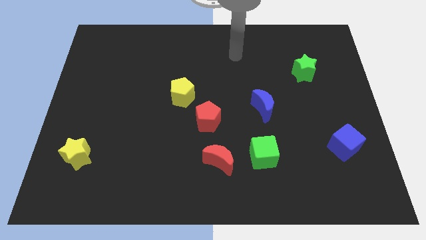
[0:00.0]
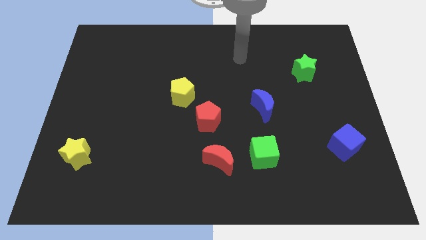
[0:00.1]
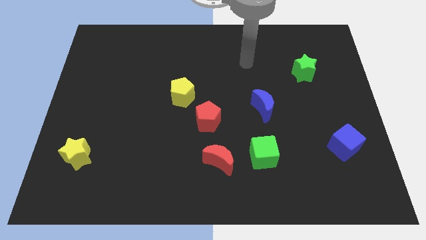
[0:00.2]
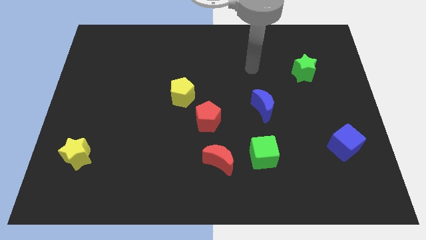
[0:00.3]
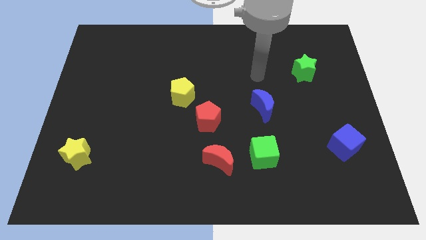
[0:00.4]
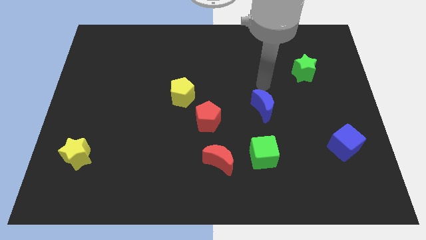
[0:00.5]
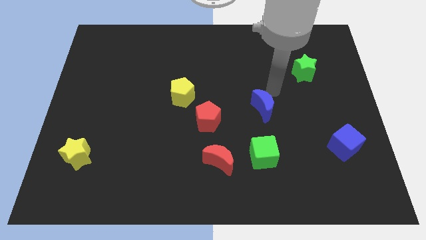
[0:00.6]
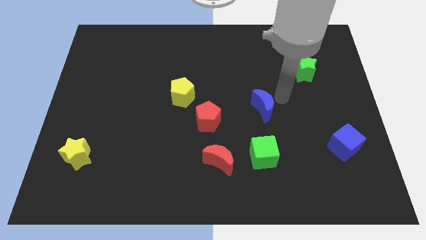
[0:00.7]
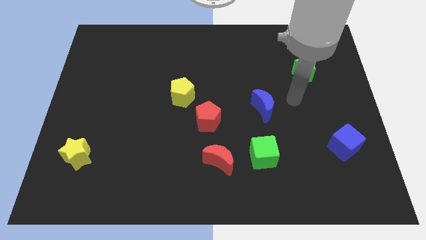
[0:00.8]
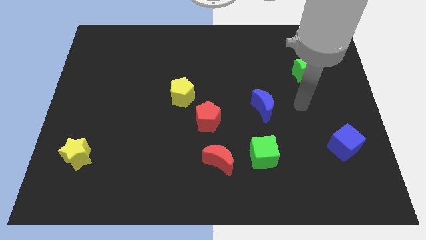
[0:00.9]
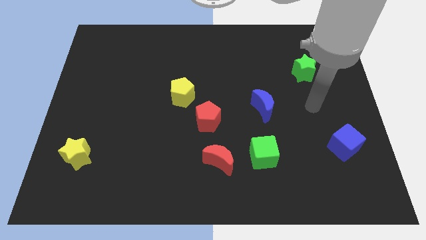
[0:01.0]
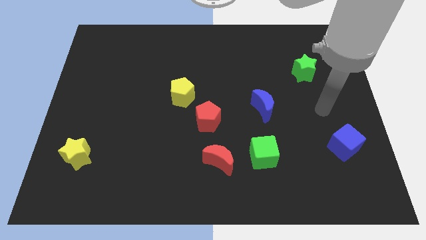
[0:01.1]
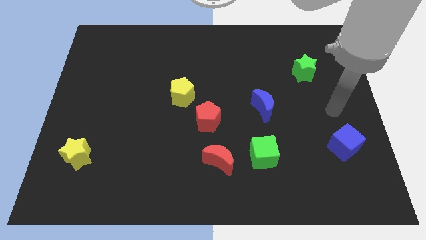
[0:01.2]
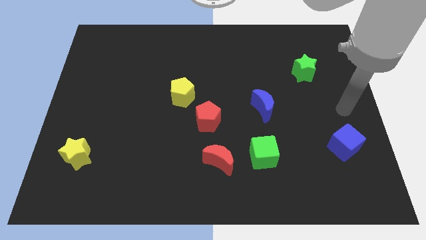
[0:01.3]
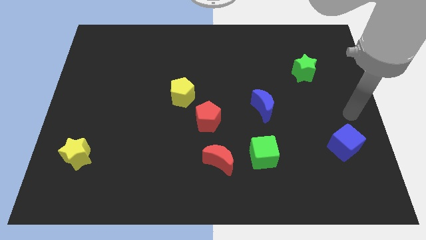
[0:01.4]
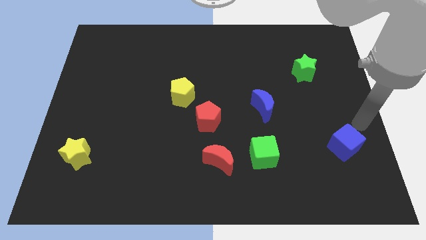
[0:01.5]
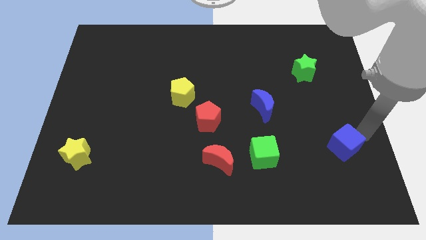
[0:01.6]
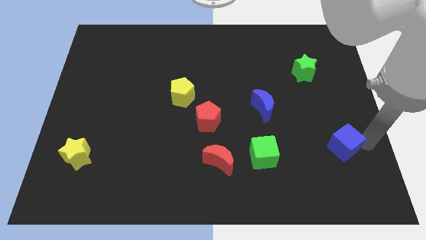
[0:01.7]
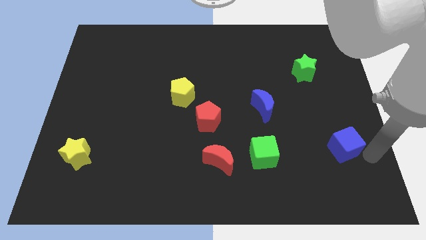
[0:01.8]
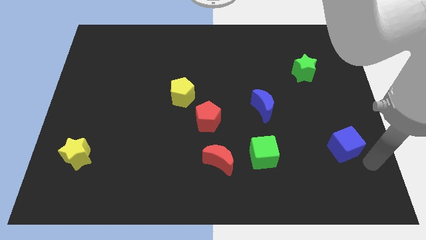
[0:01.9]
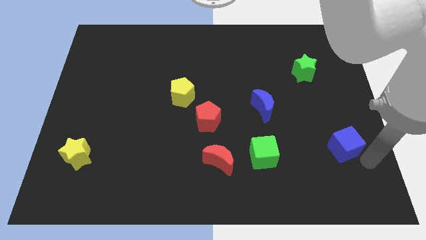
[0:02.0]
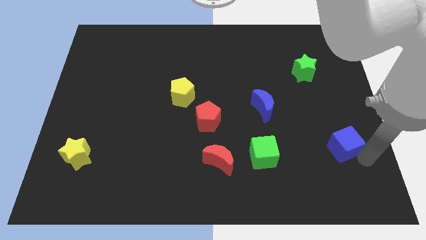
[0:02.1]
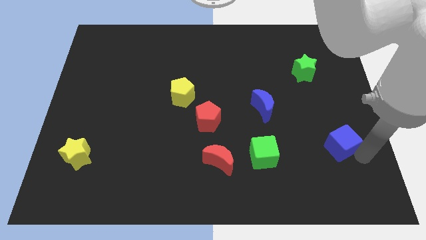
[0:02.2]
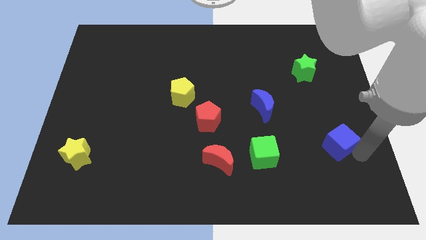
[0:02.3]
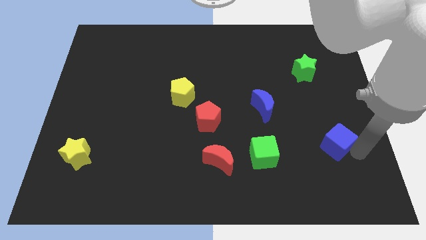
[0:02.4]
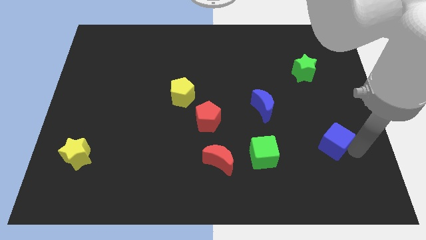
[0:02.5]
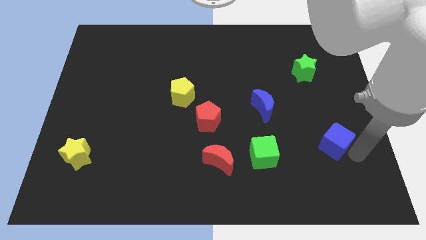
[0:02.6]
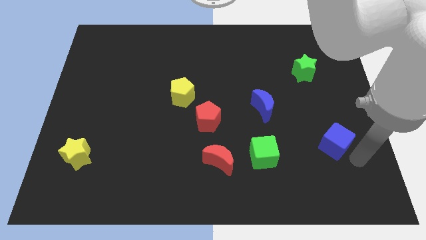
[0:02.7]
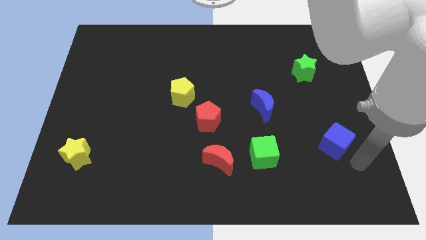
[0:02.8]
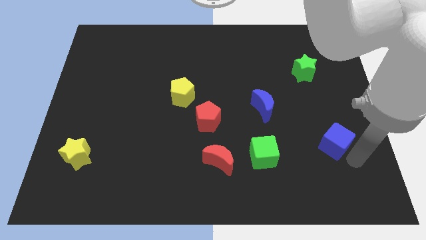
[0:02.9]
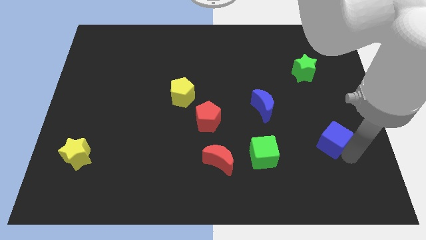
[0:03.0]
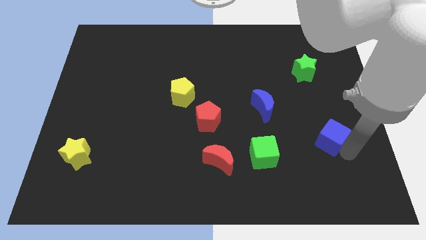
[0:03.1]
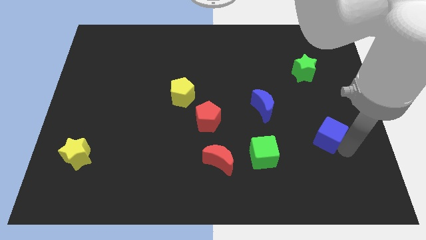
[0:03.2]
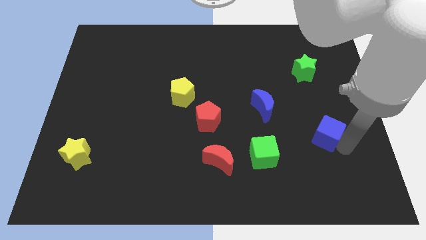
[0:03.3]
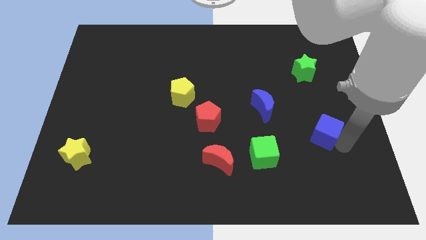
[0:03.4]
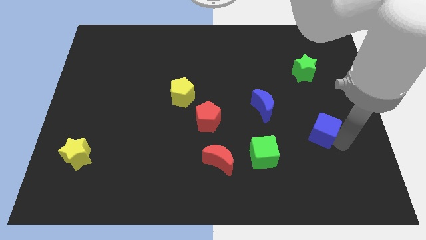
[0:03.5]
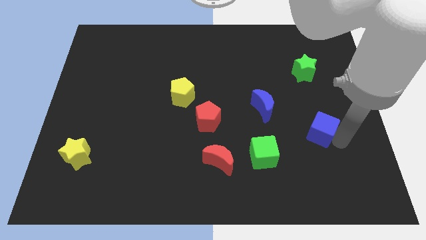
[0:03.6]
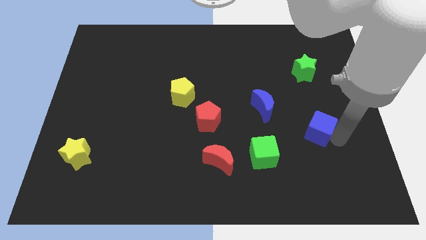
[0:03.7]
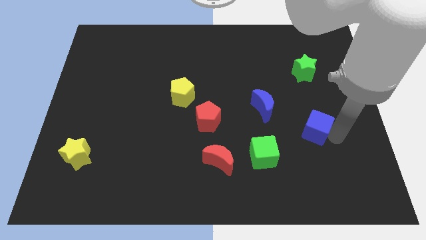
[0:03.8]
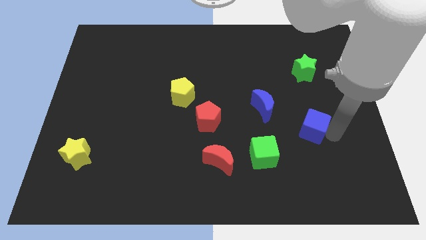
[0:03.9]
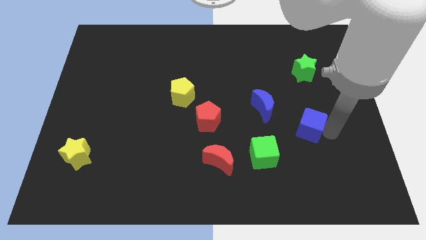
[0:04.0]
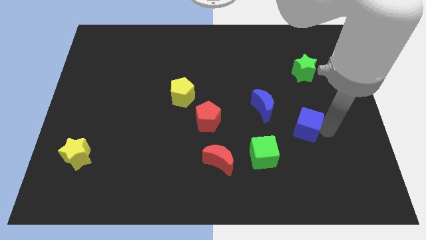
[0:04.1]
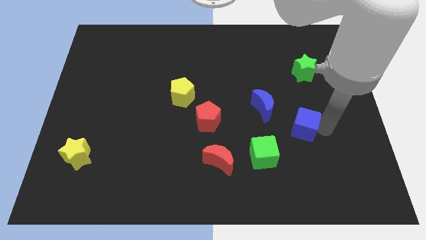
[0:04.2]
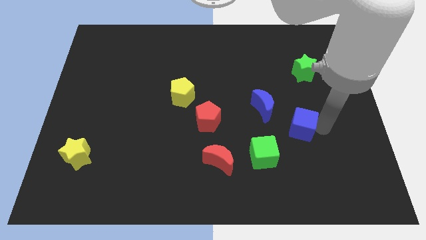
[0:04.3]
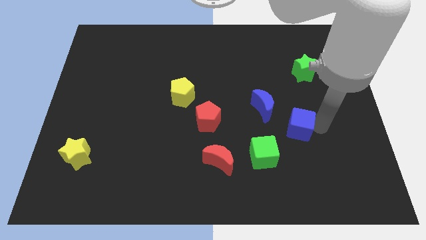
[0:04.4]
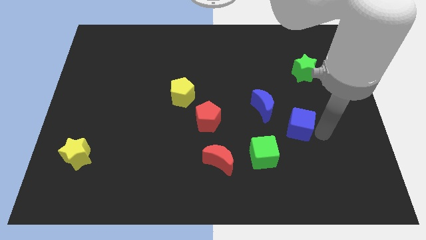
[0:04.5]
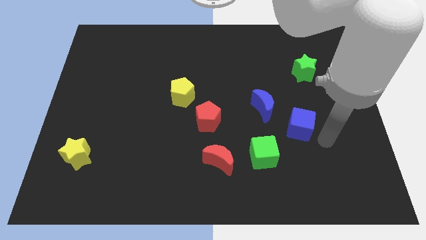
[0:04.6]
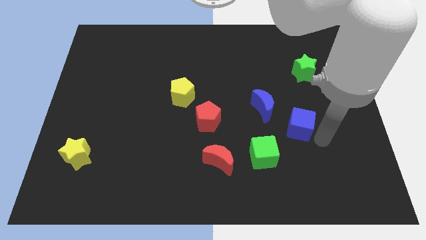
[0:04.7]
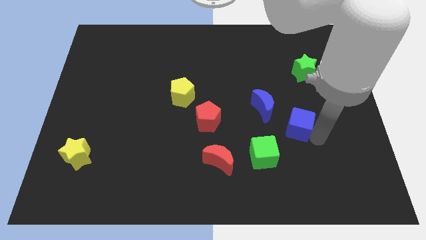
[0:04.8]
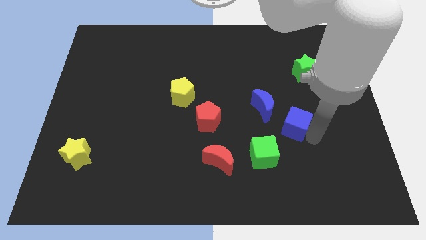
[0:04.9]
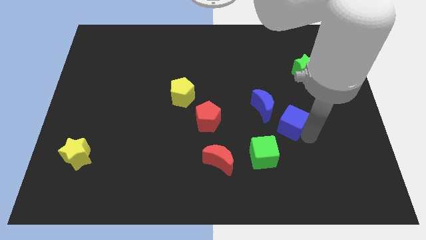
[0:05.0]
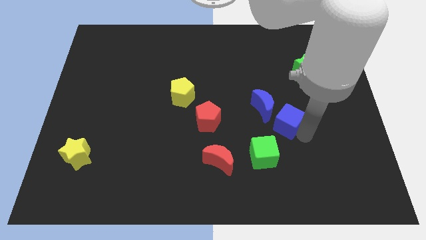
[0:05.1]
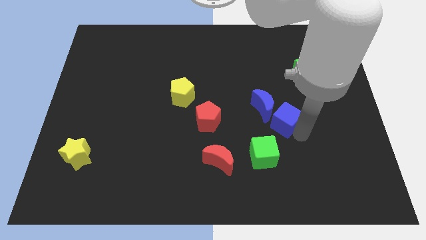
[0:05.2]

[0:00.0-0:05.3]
slide the blue cube next to the blue moon

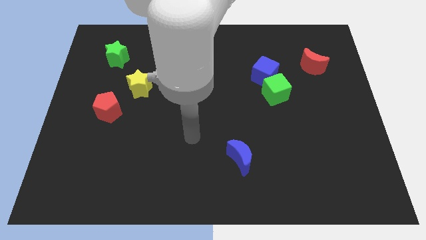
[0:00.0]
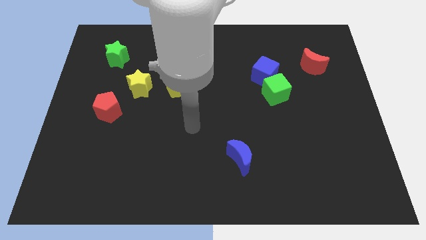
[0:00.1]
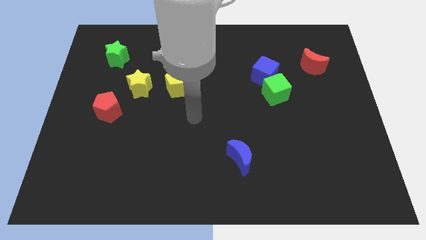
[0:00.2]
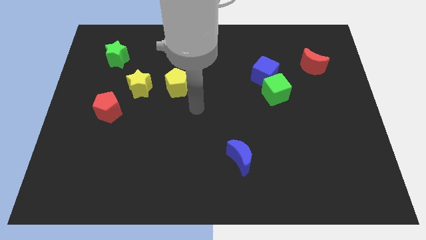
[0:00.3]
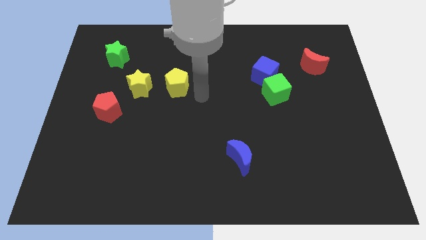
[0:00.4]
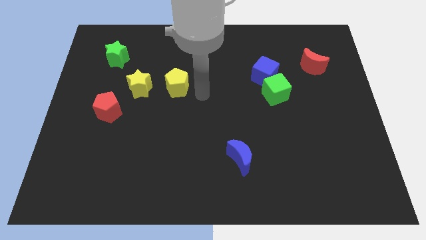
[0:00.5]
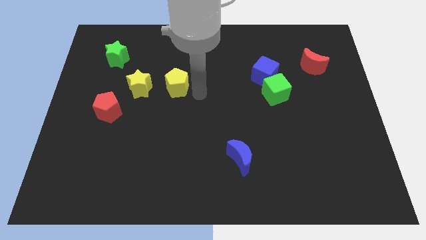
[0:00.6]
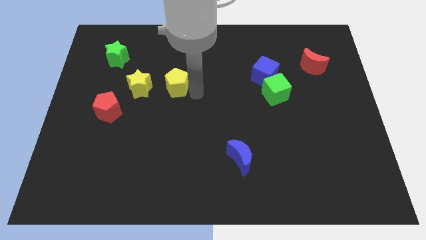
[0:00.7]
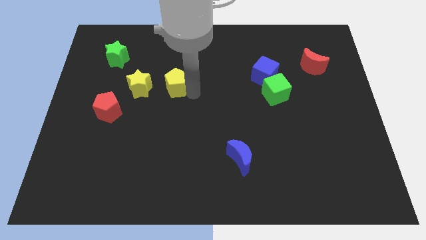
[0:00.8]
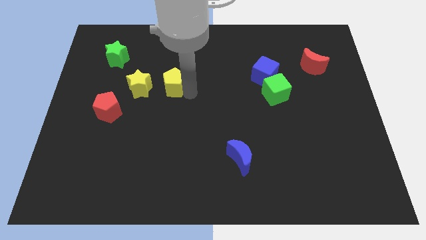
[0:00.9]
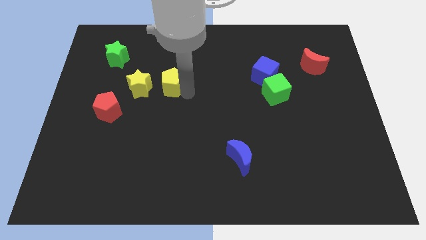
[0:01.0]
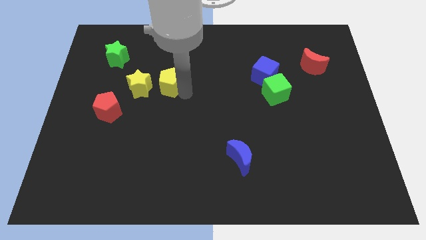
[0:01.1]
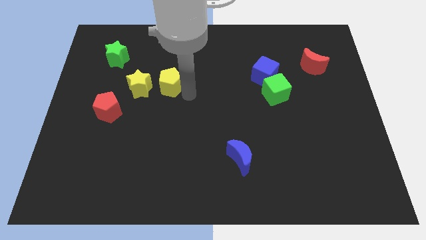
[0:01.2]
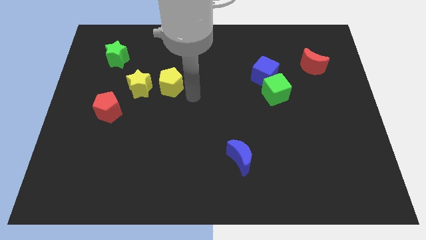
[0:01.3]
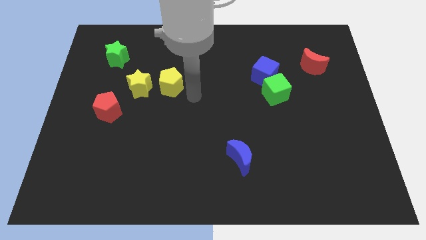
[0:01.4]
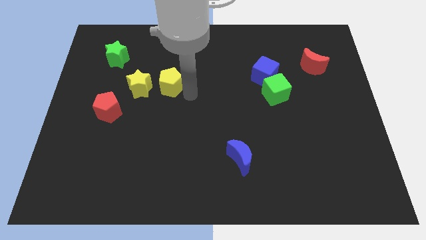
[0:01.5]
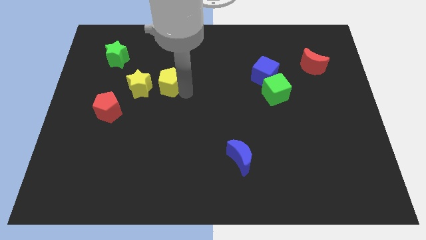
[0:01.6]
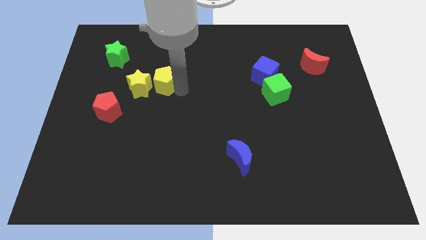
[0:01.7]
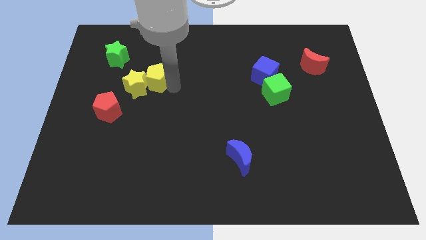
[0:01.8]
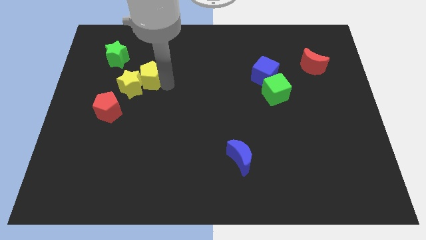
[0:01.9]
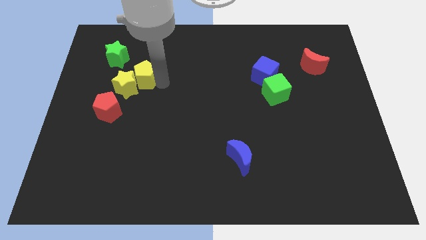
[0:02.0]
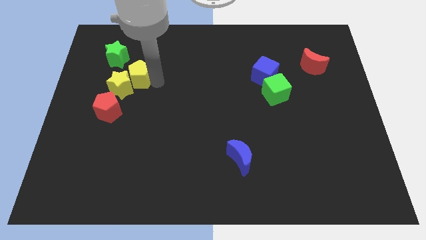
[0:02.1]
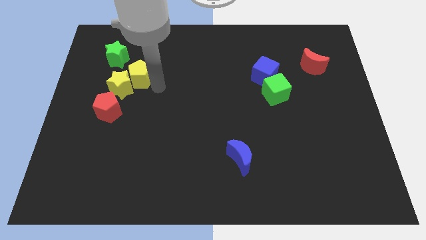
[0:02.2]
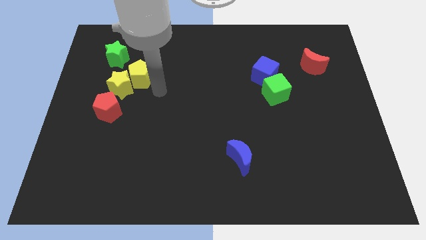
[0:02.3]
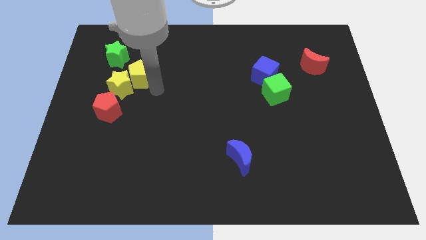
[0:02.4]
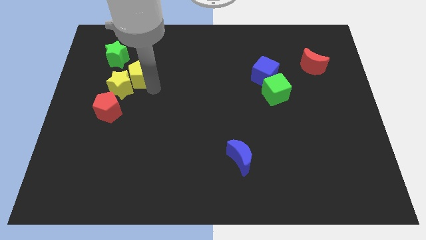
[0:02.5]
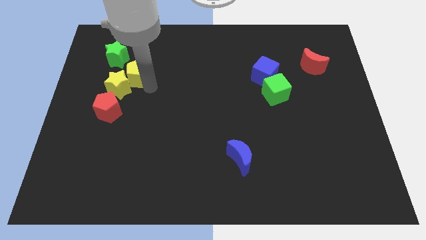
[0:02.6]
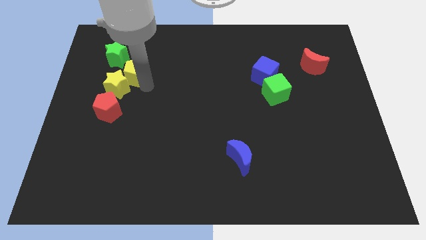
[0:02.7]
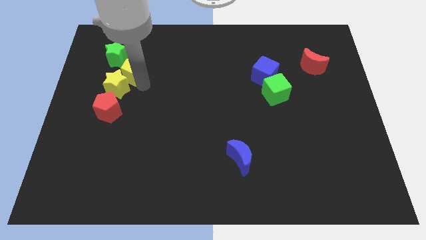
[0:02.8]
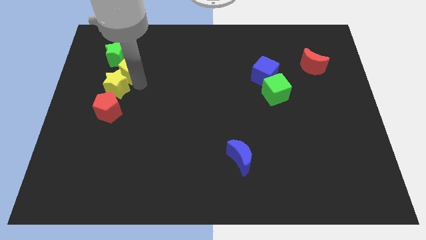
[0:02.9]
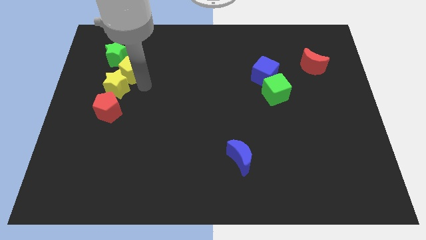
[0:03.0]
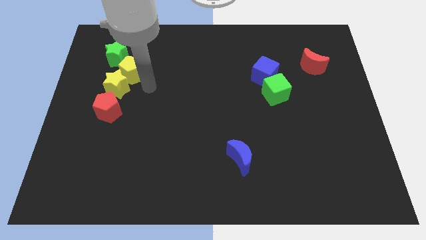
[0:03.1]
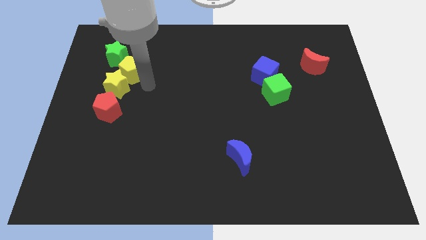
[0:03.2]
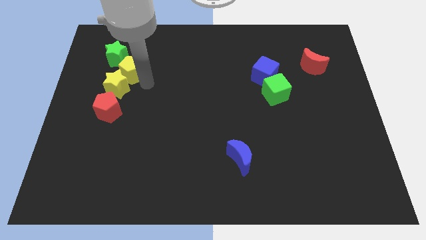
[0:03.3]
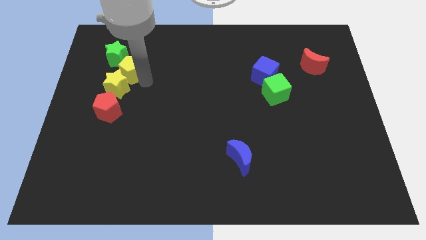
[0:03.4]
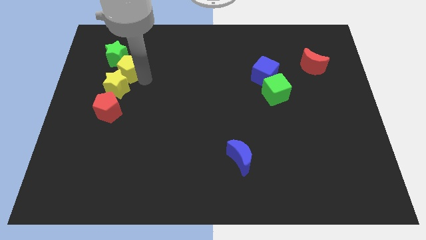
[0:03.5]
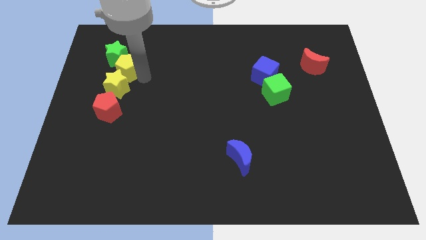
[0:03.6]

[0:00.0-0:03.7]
move the yellow pentagon close to the green star
